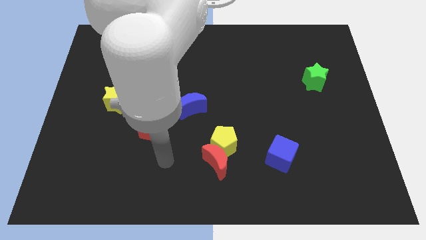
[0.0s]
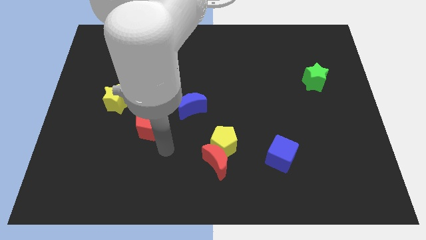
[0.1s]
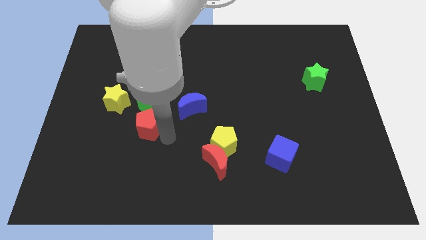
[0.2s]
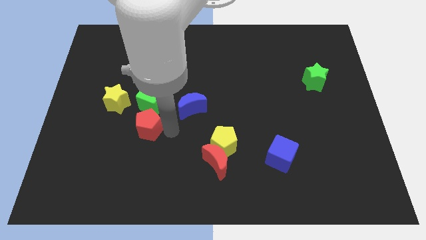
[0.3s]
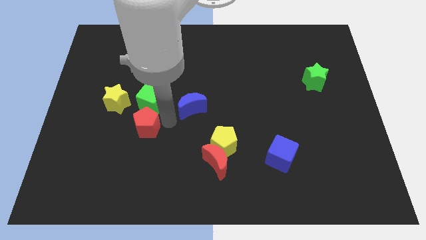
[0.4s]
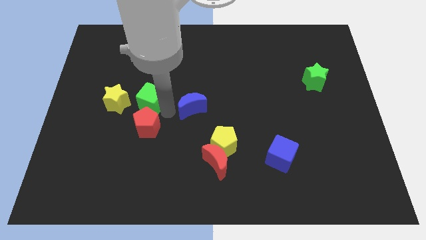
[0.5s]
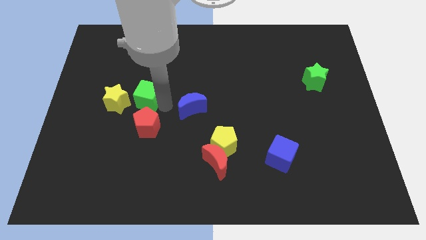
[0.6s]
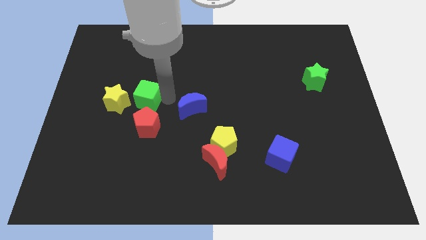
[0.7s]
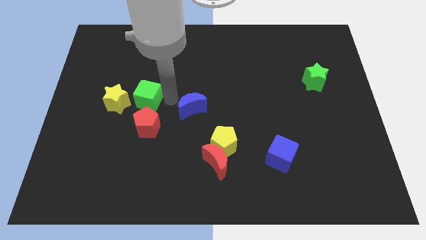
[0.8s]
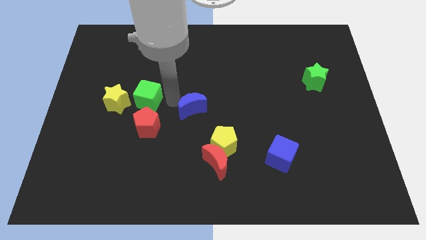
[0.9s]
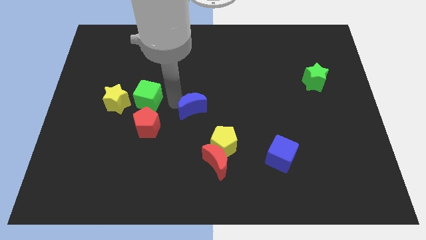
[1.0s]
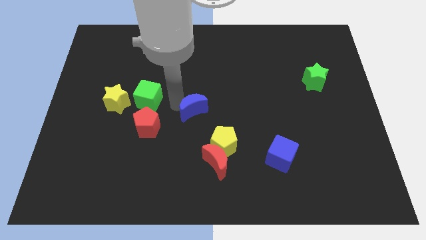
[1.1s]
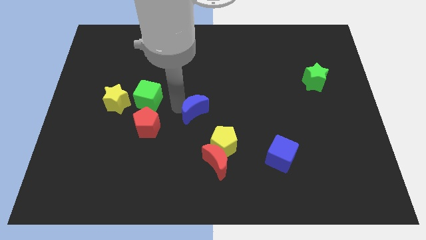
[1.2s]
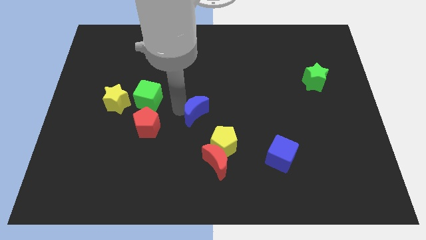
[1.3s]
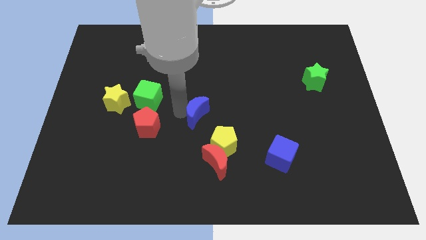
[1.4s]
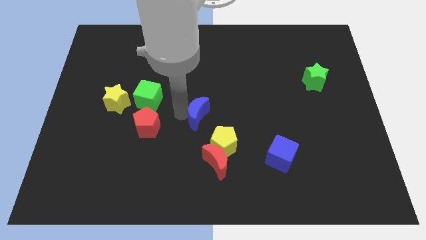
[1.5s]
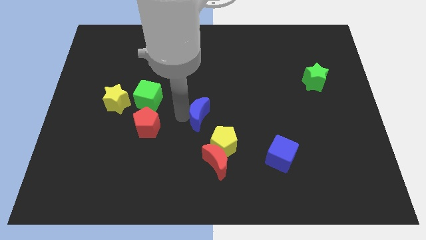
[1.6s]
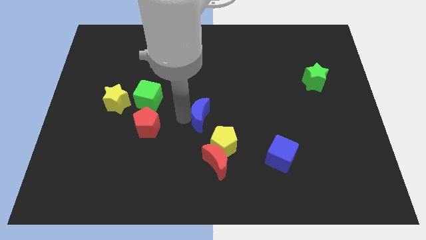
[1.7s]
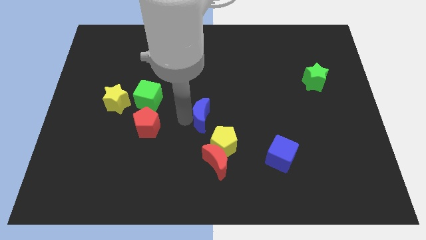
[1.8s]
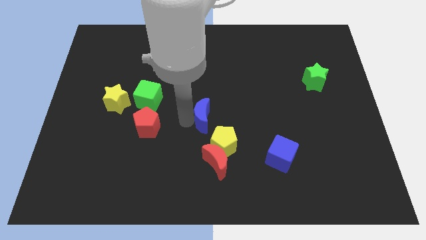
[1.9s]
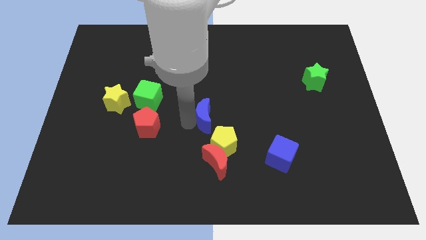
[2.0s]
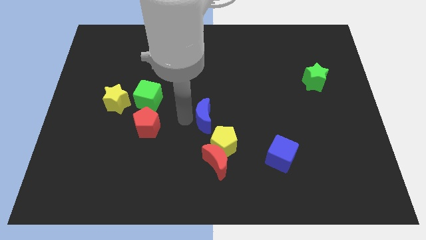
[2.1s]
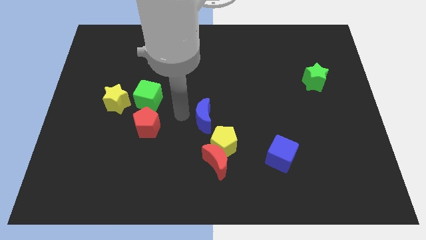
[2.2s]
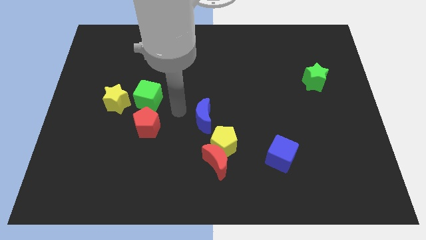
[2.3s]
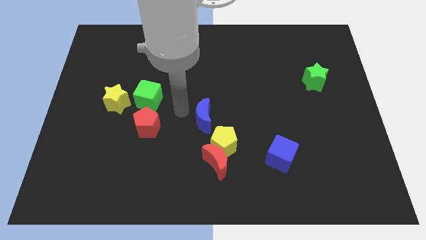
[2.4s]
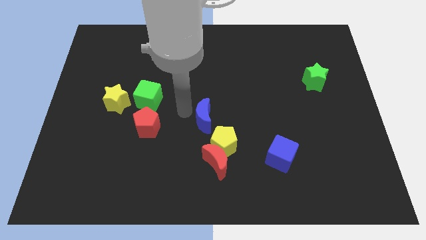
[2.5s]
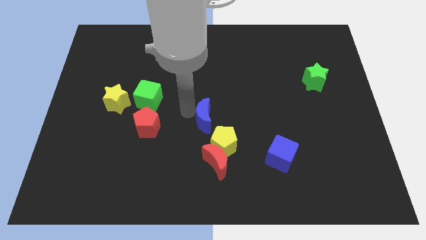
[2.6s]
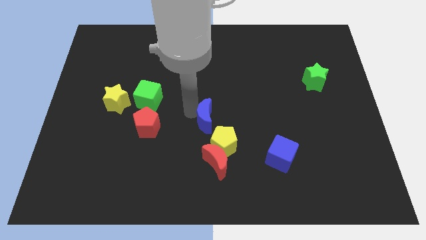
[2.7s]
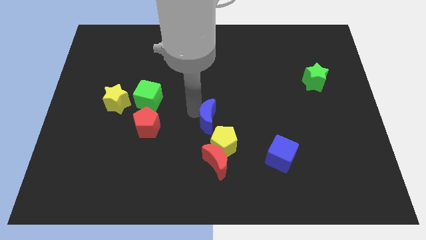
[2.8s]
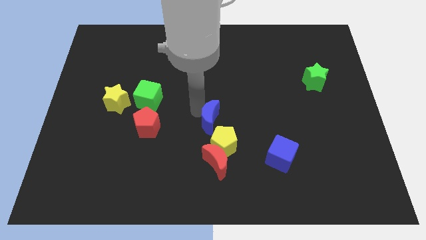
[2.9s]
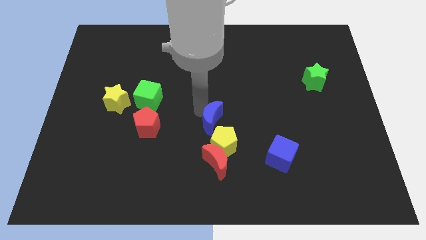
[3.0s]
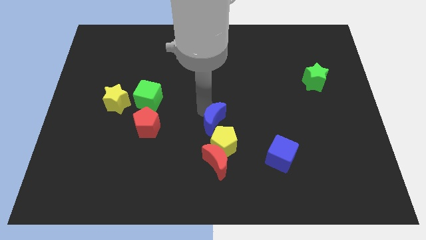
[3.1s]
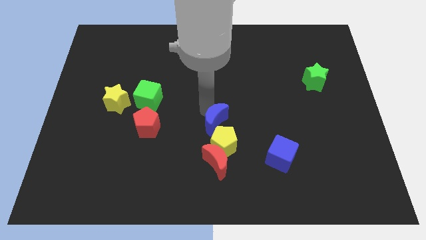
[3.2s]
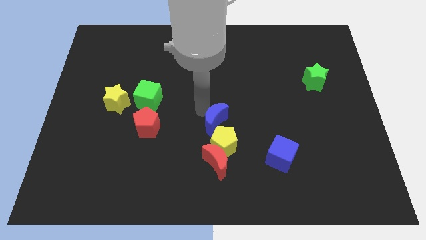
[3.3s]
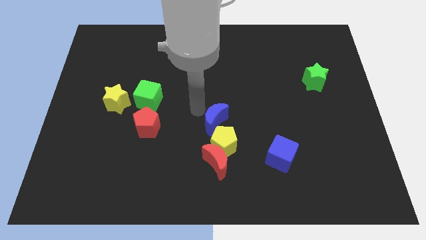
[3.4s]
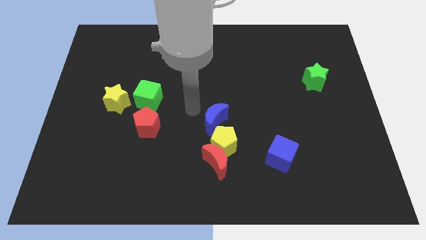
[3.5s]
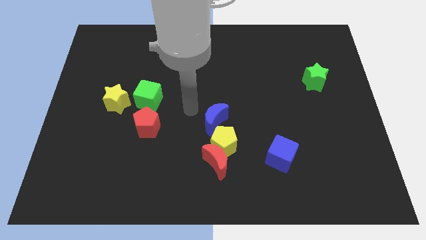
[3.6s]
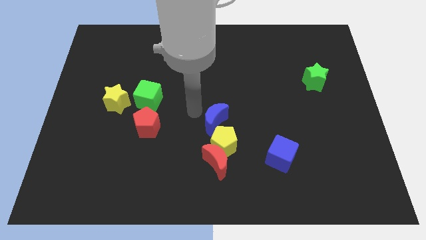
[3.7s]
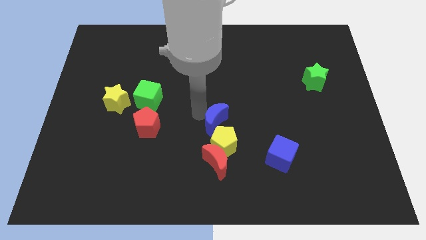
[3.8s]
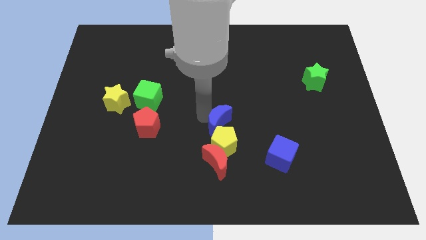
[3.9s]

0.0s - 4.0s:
slide the blue moon a bit down and right diagonally

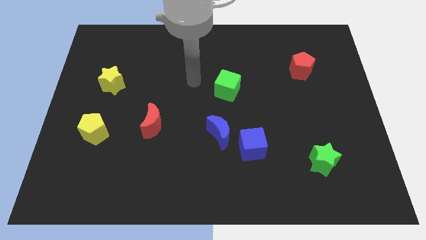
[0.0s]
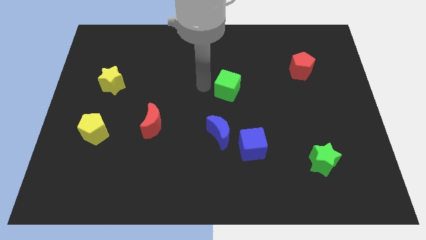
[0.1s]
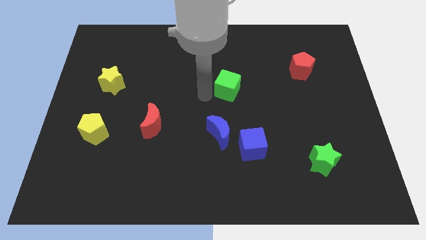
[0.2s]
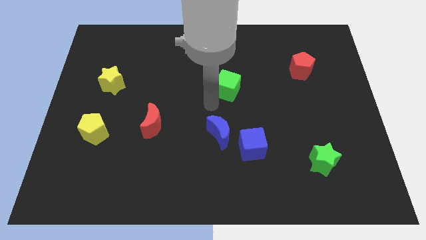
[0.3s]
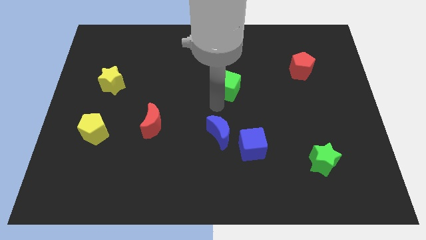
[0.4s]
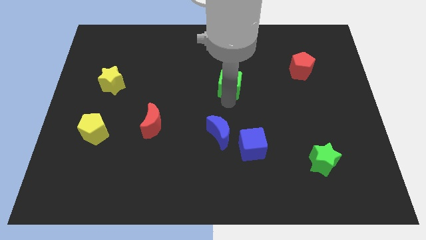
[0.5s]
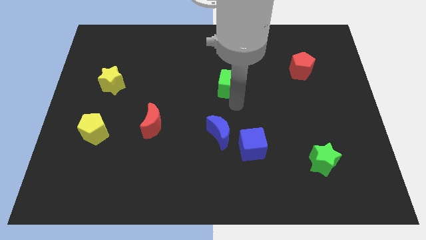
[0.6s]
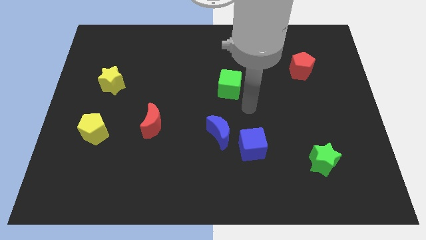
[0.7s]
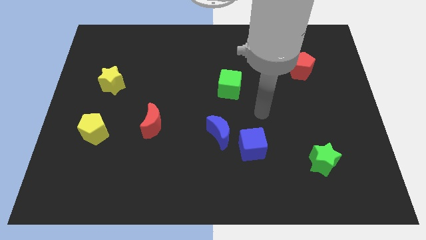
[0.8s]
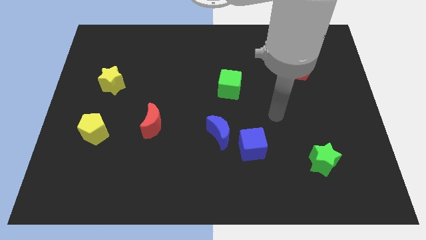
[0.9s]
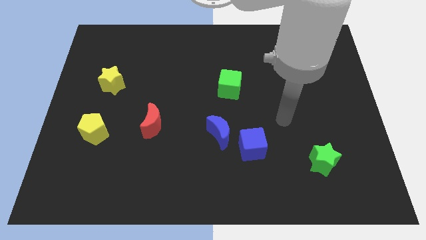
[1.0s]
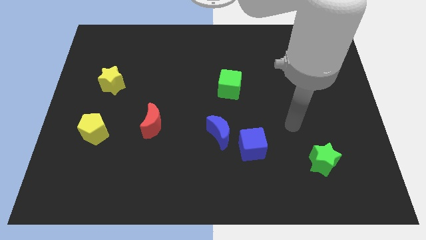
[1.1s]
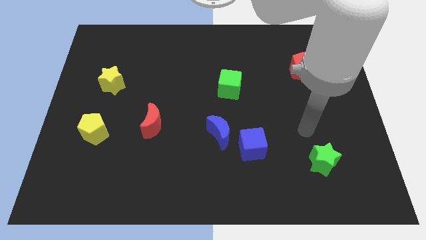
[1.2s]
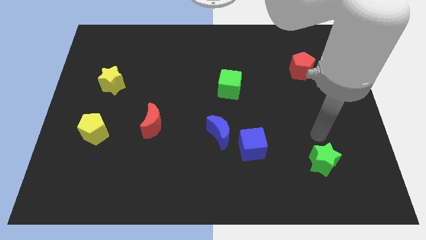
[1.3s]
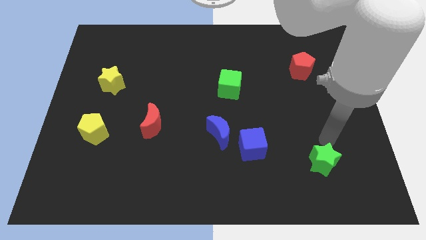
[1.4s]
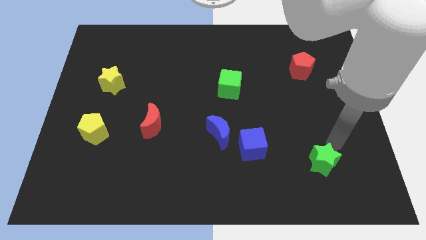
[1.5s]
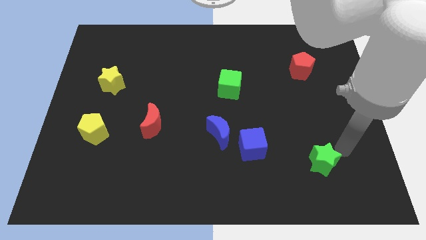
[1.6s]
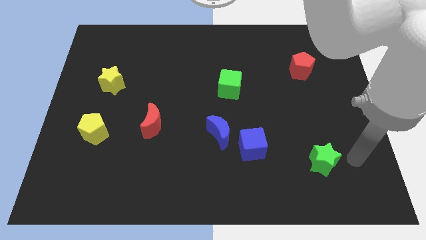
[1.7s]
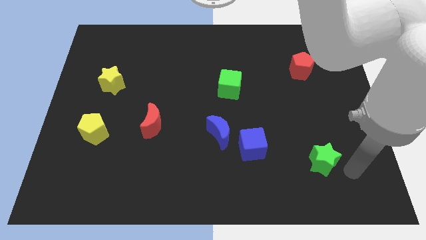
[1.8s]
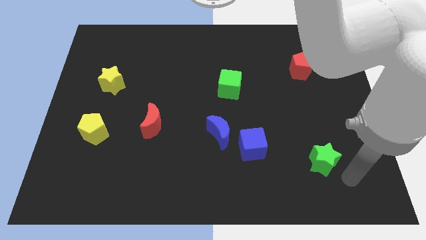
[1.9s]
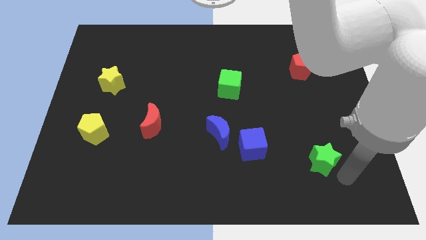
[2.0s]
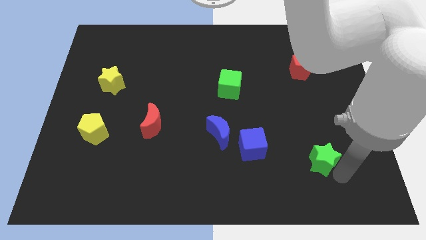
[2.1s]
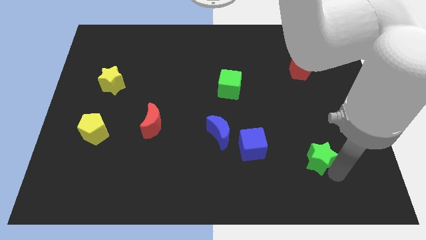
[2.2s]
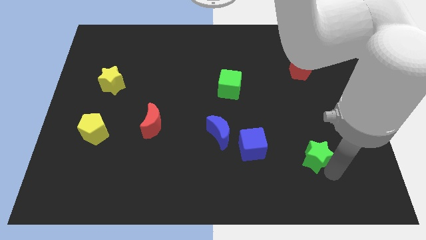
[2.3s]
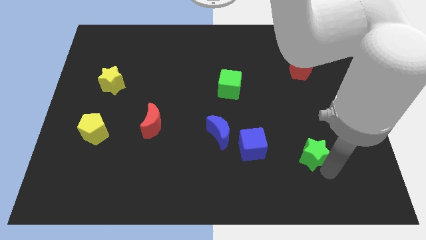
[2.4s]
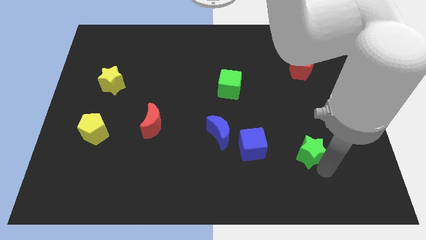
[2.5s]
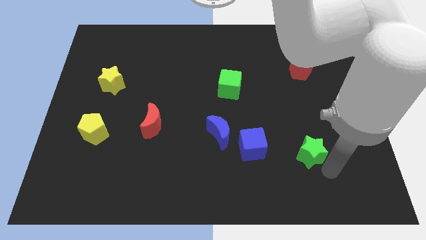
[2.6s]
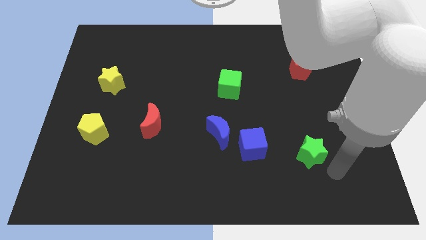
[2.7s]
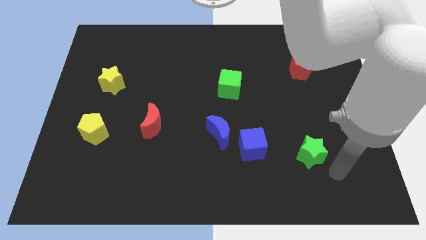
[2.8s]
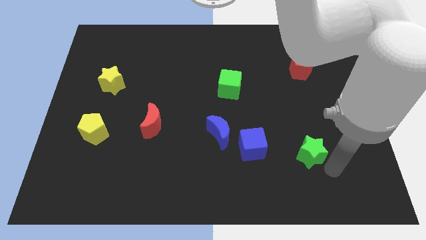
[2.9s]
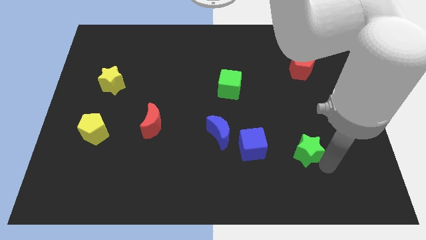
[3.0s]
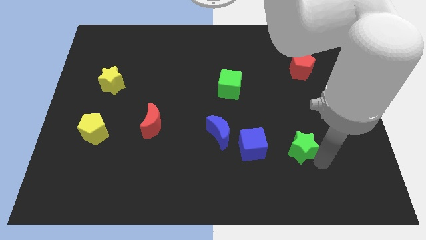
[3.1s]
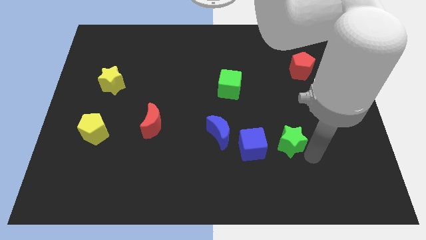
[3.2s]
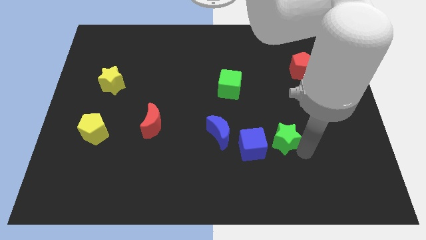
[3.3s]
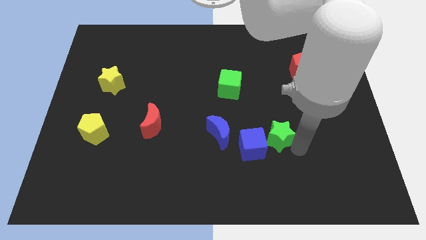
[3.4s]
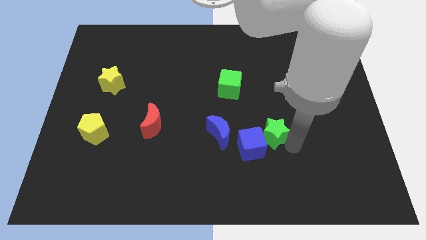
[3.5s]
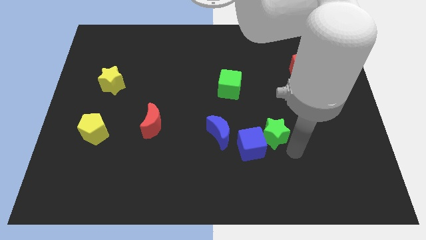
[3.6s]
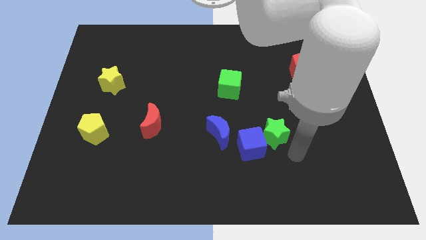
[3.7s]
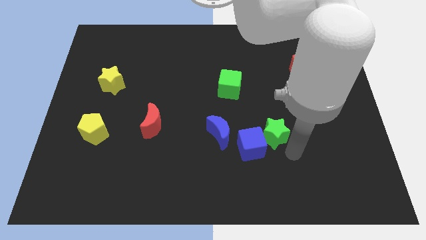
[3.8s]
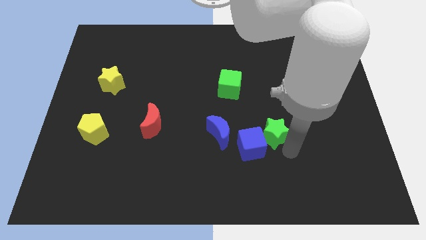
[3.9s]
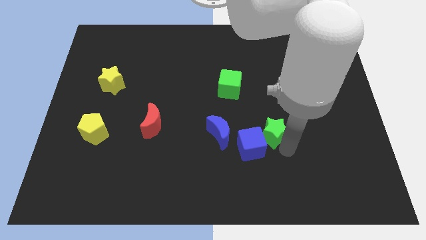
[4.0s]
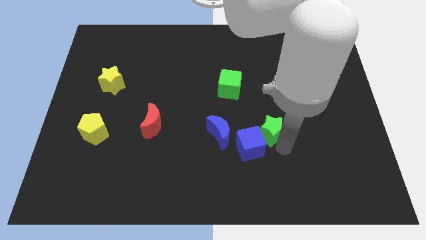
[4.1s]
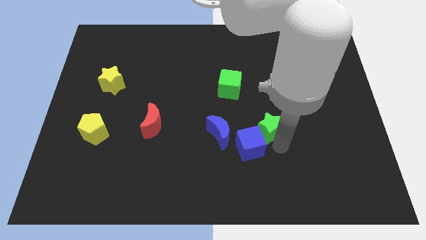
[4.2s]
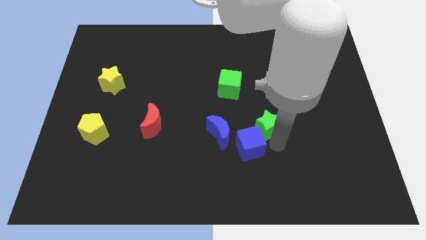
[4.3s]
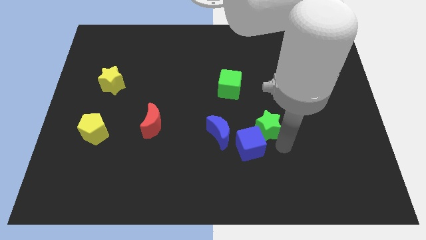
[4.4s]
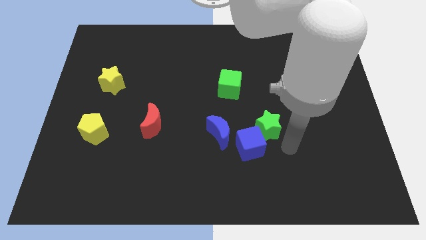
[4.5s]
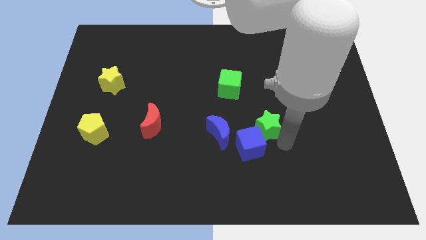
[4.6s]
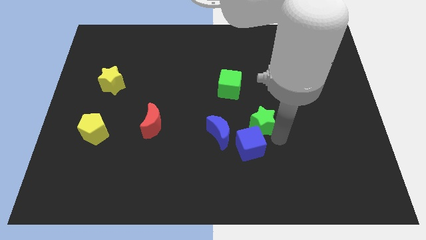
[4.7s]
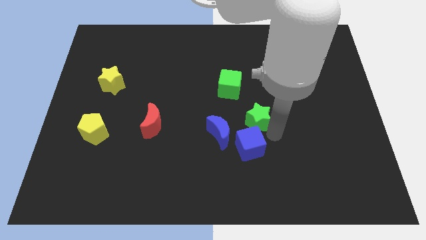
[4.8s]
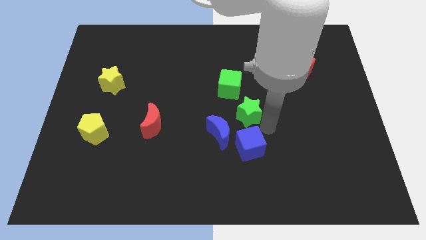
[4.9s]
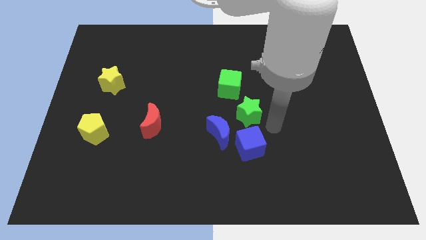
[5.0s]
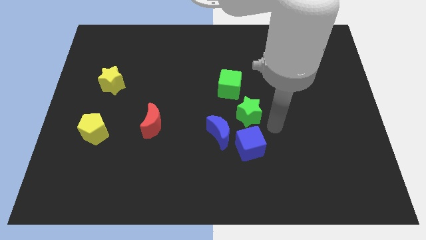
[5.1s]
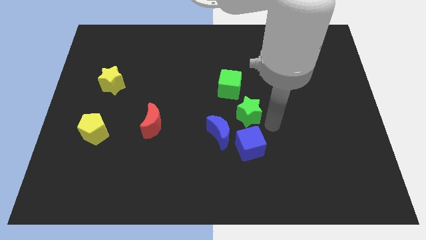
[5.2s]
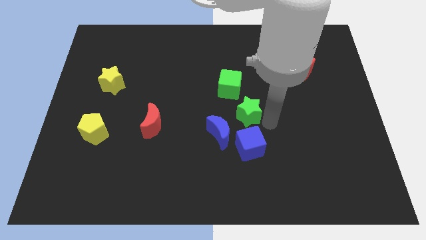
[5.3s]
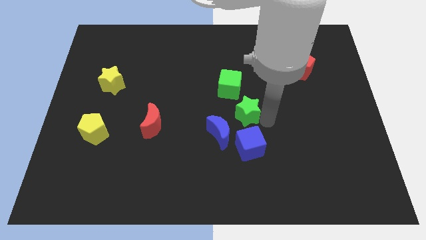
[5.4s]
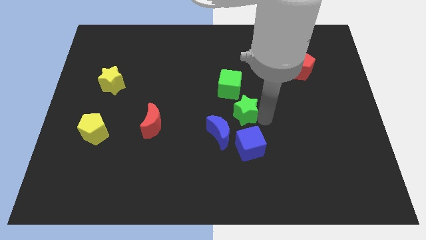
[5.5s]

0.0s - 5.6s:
move the green star upwards and left
